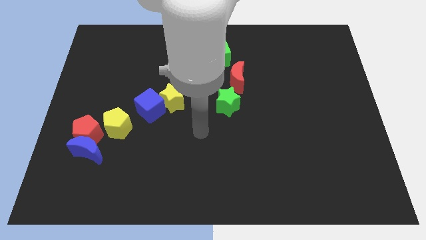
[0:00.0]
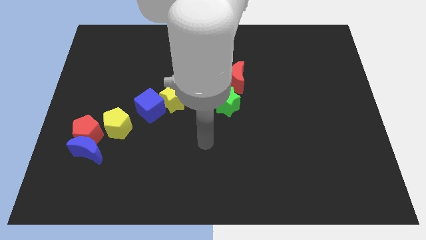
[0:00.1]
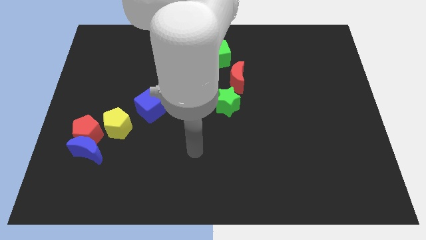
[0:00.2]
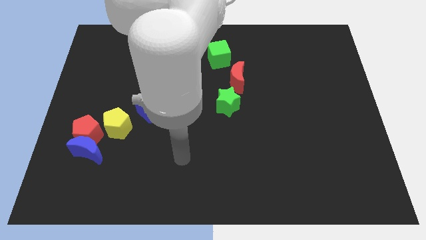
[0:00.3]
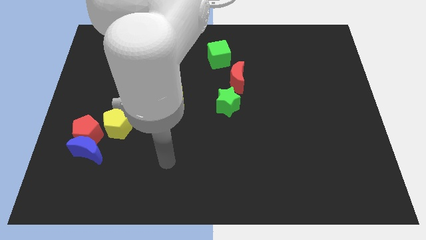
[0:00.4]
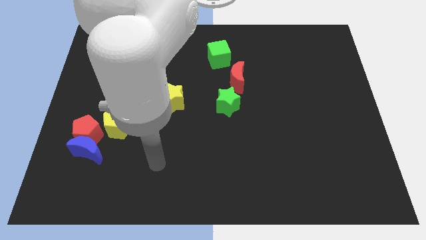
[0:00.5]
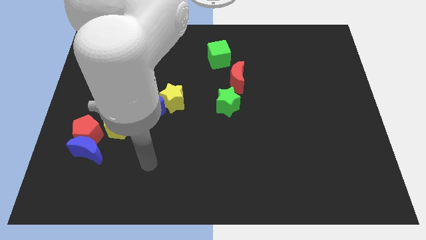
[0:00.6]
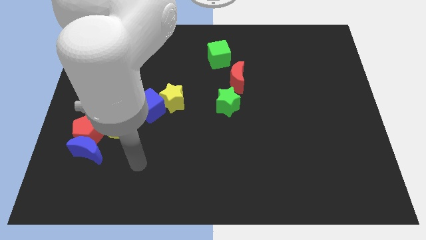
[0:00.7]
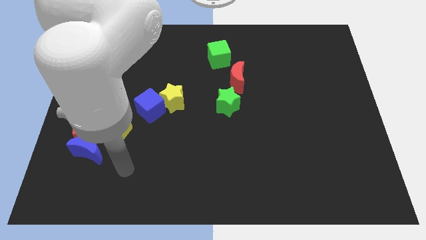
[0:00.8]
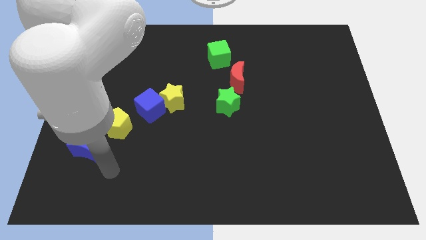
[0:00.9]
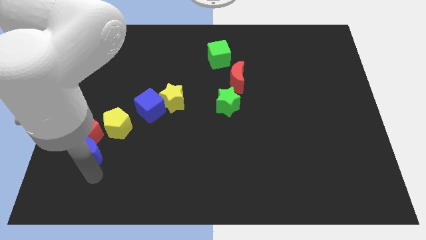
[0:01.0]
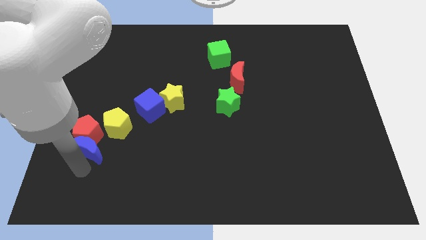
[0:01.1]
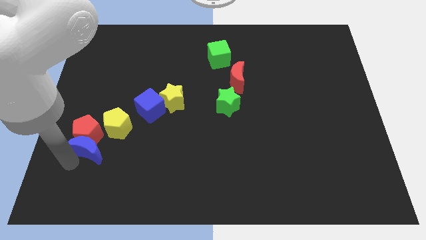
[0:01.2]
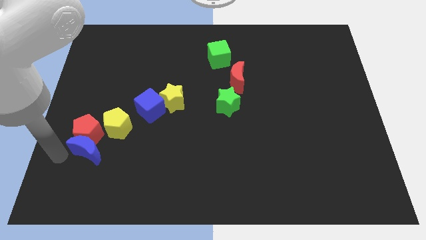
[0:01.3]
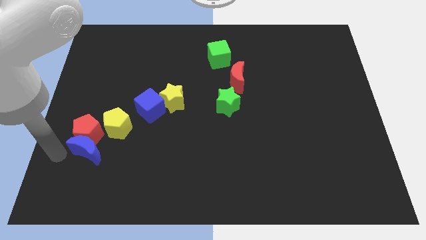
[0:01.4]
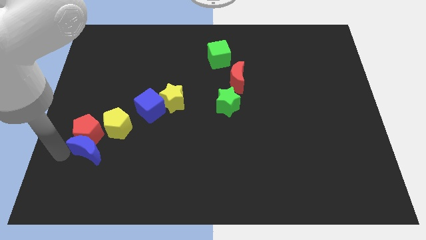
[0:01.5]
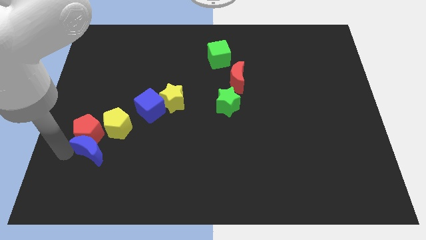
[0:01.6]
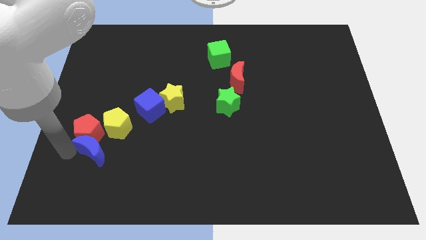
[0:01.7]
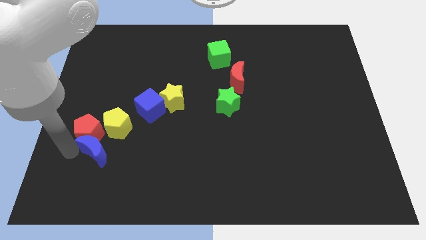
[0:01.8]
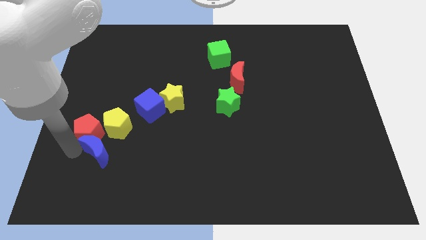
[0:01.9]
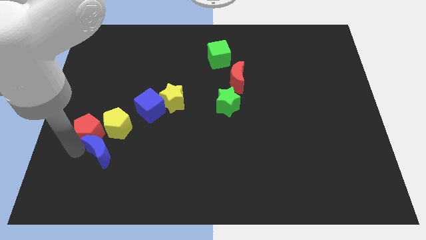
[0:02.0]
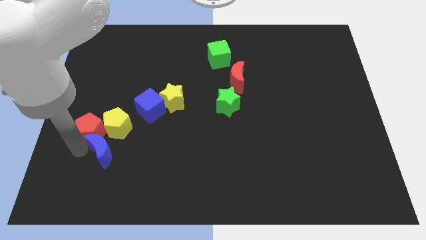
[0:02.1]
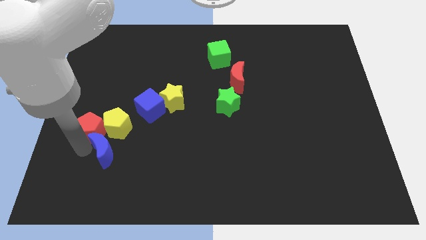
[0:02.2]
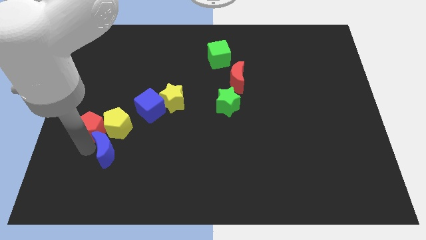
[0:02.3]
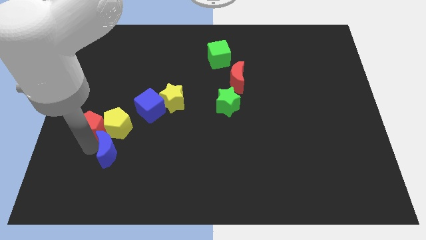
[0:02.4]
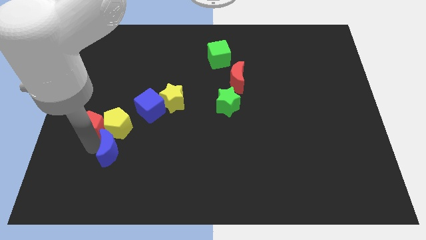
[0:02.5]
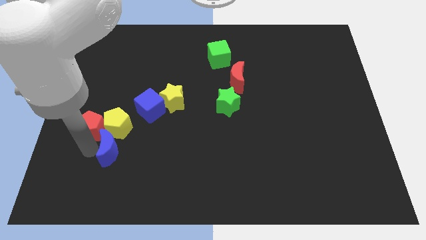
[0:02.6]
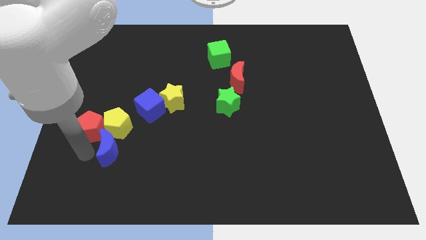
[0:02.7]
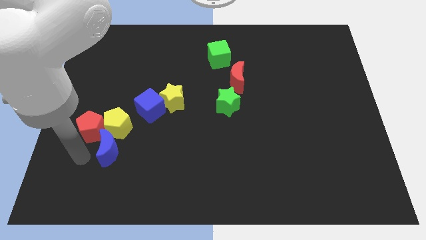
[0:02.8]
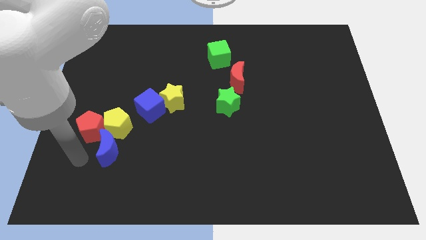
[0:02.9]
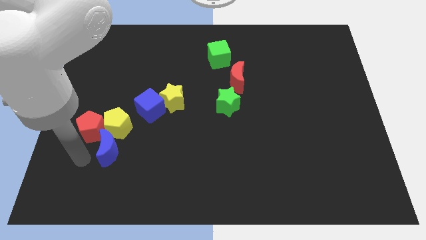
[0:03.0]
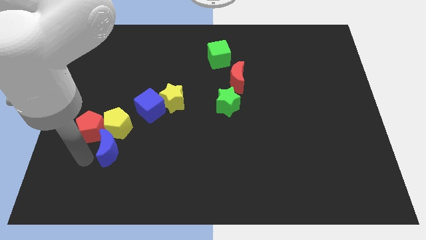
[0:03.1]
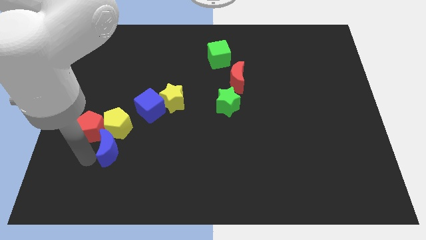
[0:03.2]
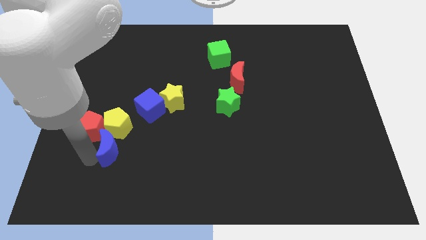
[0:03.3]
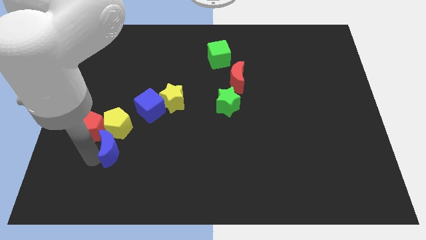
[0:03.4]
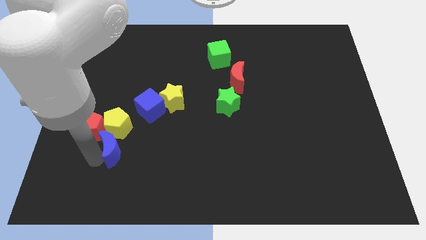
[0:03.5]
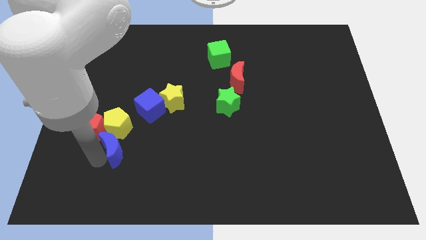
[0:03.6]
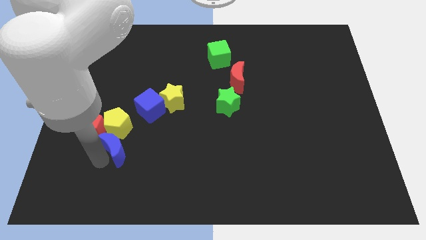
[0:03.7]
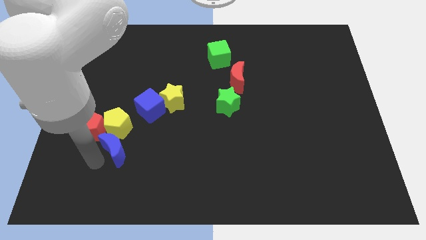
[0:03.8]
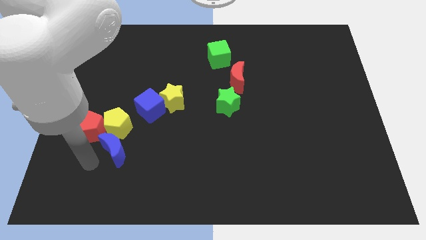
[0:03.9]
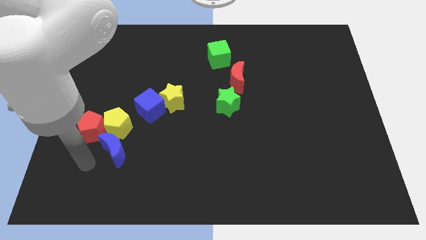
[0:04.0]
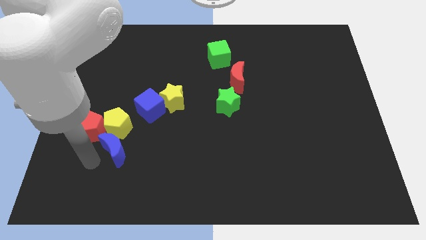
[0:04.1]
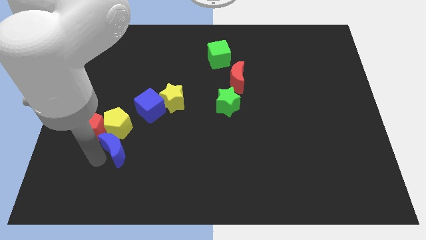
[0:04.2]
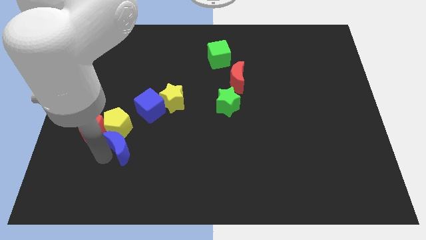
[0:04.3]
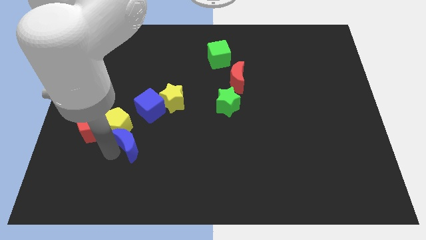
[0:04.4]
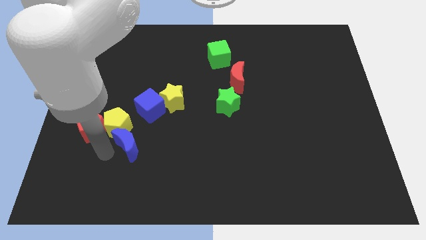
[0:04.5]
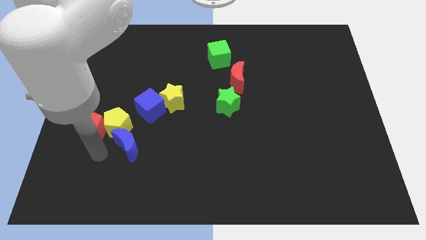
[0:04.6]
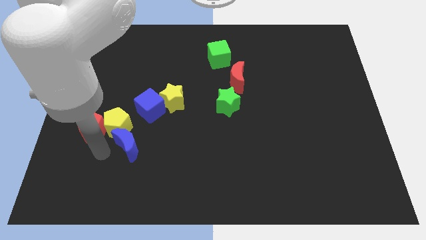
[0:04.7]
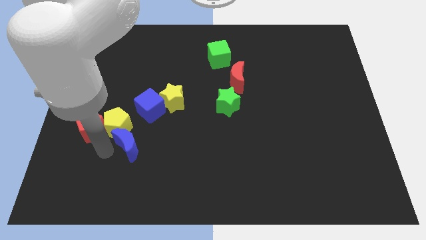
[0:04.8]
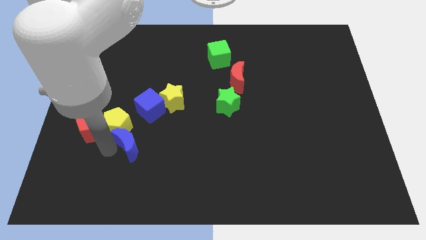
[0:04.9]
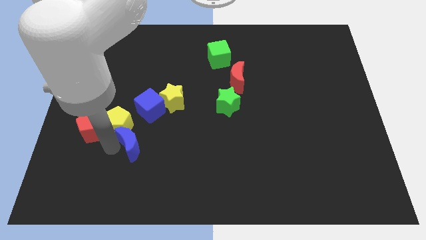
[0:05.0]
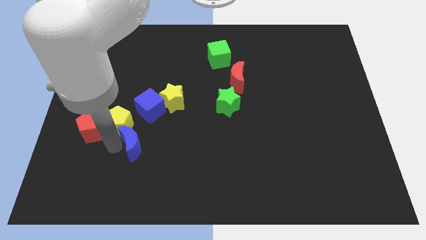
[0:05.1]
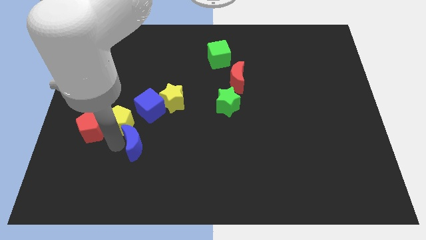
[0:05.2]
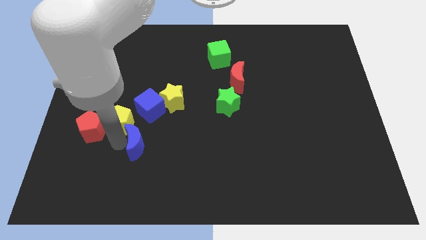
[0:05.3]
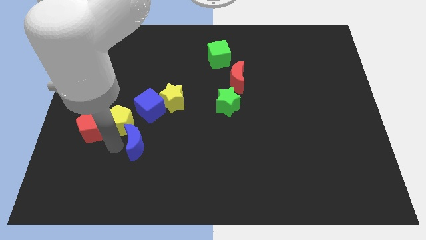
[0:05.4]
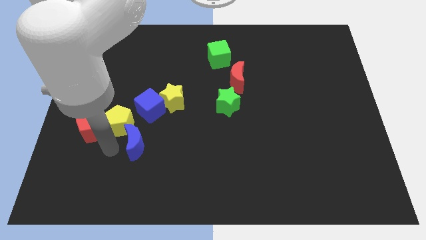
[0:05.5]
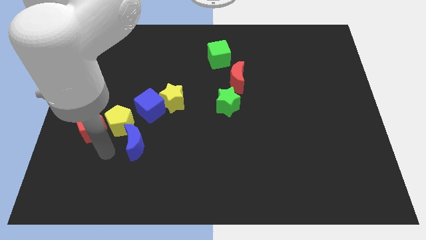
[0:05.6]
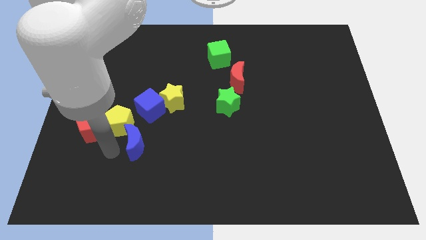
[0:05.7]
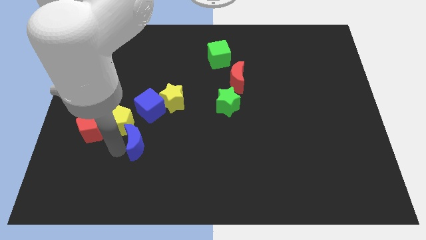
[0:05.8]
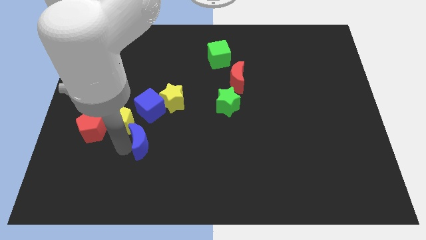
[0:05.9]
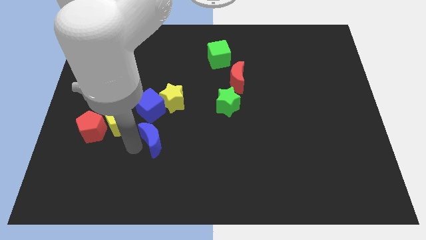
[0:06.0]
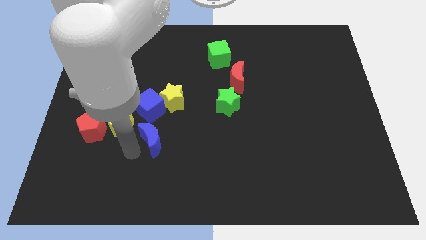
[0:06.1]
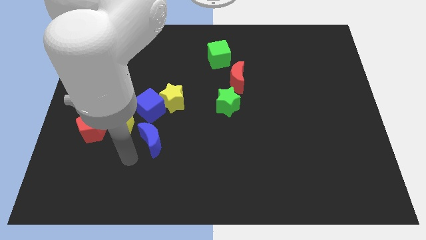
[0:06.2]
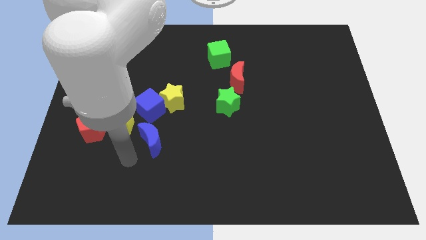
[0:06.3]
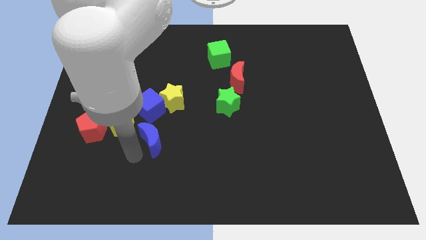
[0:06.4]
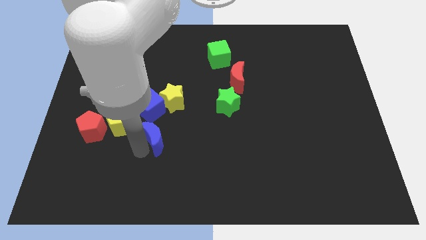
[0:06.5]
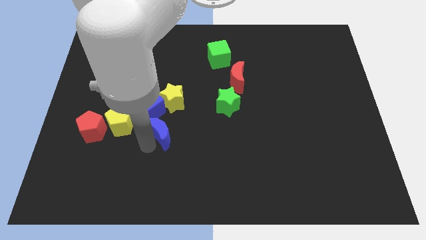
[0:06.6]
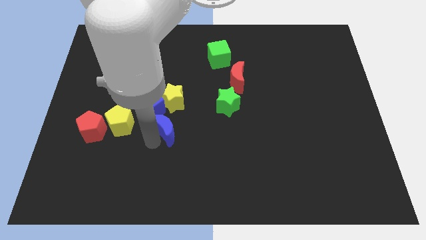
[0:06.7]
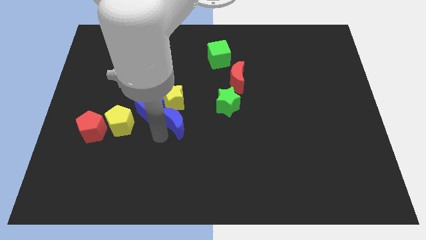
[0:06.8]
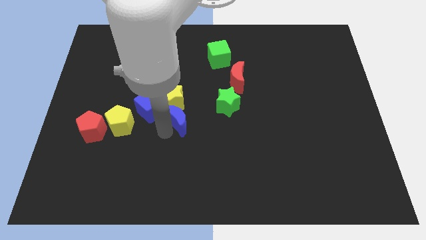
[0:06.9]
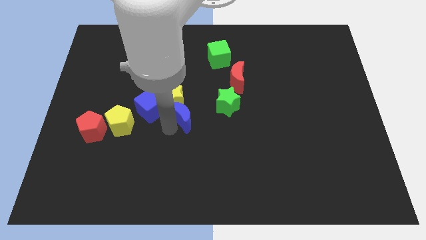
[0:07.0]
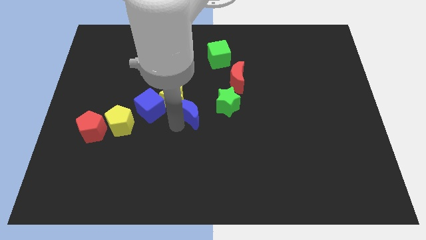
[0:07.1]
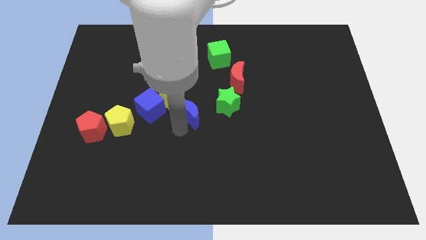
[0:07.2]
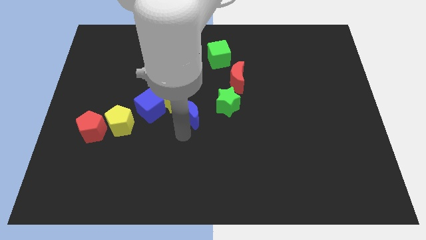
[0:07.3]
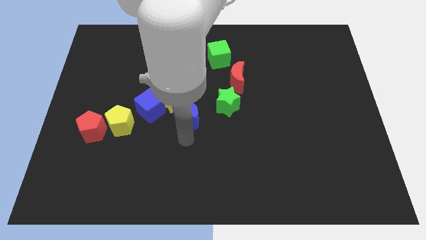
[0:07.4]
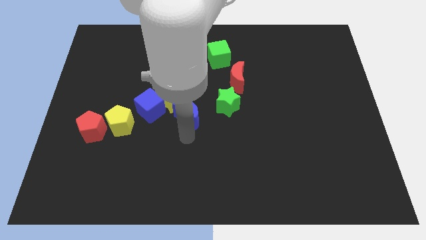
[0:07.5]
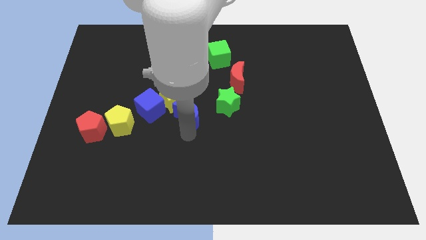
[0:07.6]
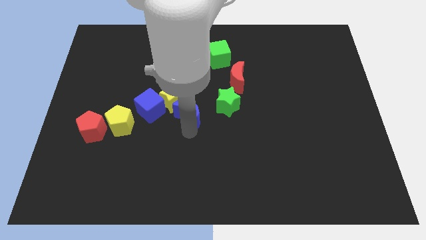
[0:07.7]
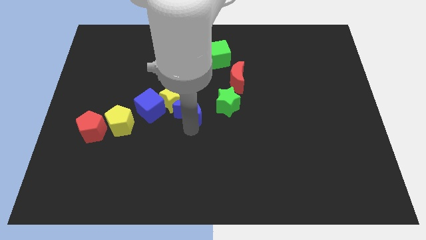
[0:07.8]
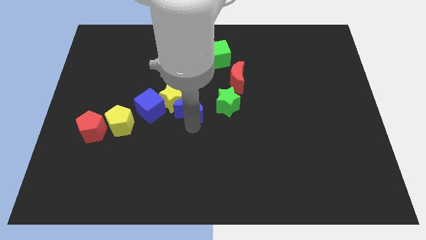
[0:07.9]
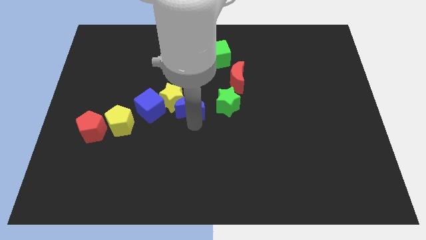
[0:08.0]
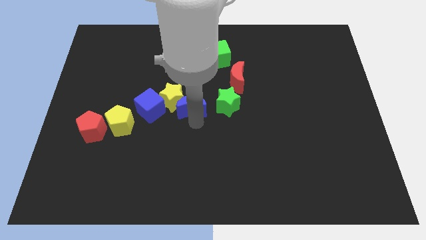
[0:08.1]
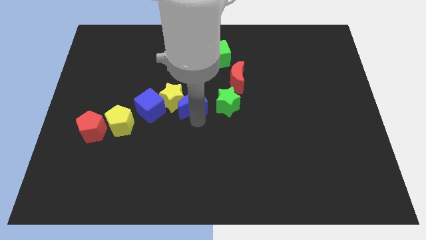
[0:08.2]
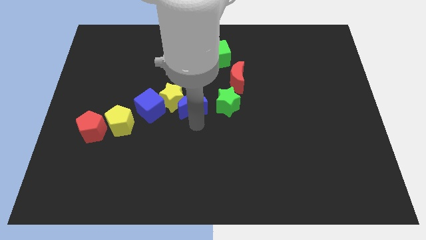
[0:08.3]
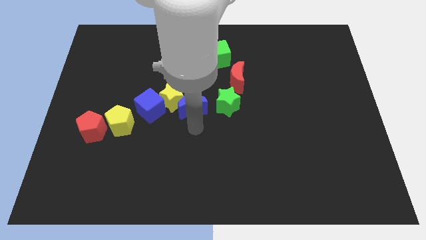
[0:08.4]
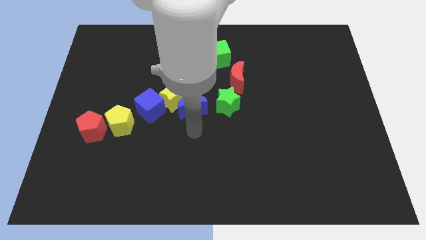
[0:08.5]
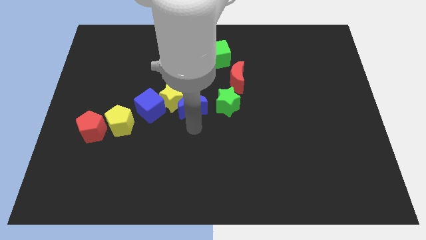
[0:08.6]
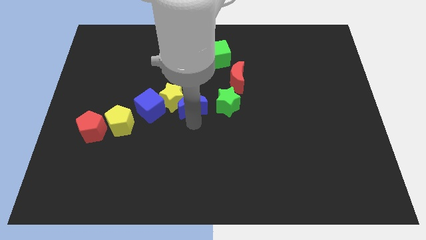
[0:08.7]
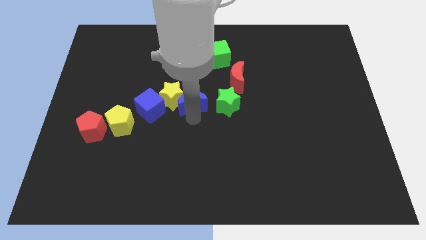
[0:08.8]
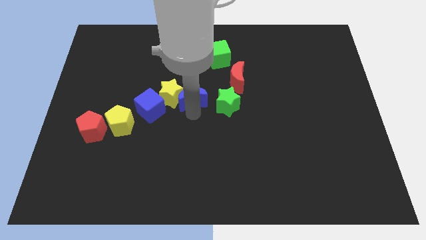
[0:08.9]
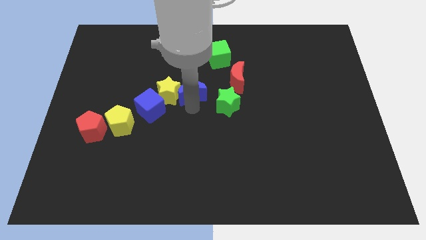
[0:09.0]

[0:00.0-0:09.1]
move the blue moon to the left of the red moon
